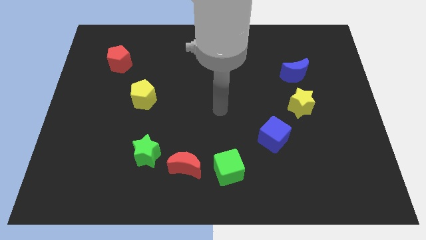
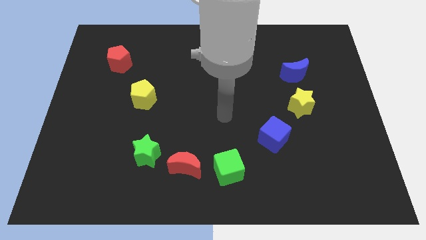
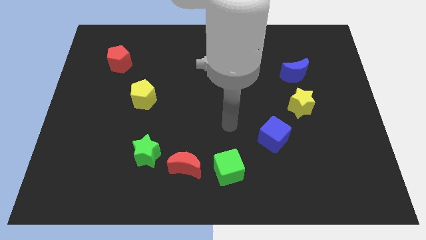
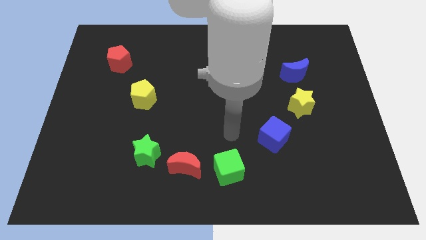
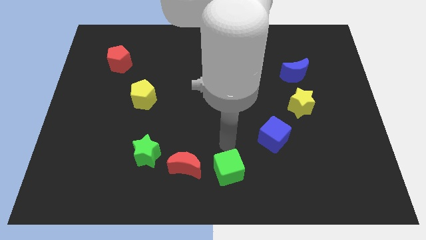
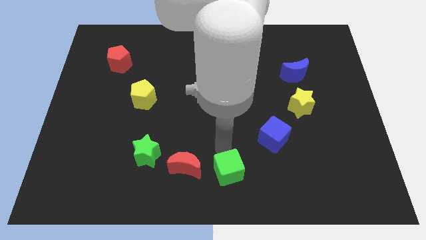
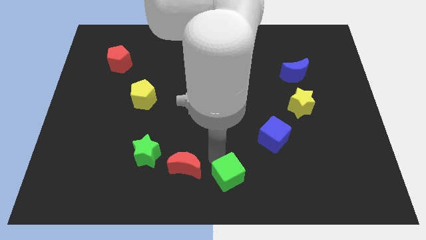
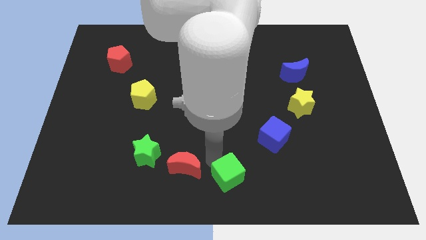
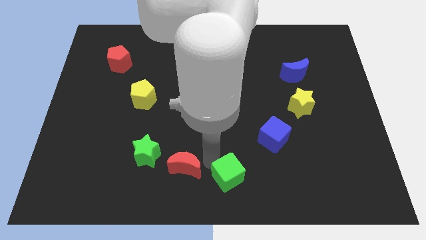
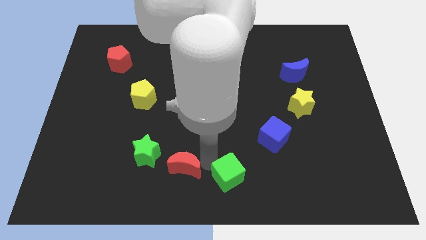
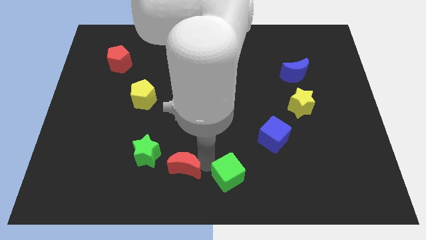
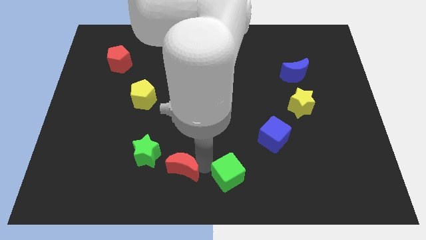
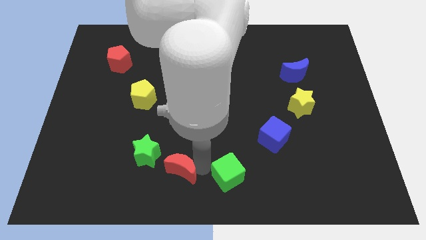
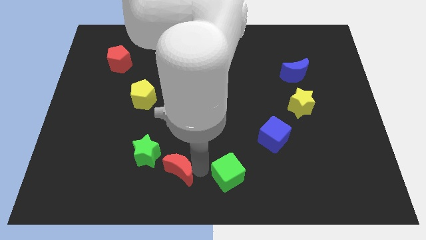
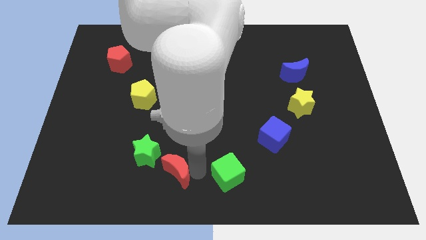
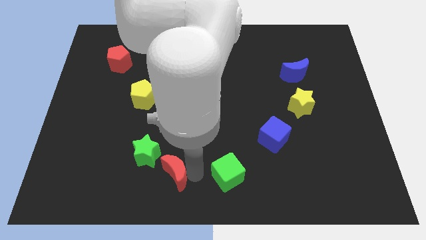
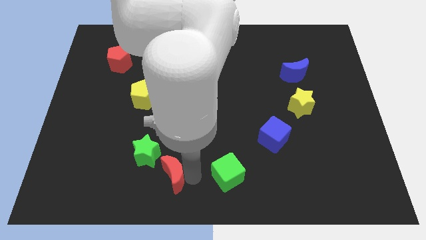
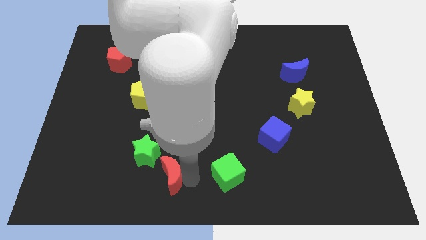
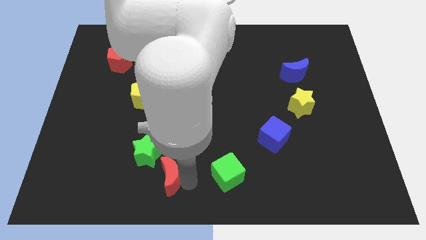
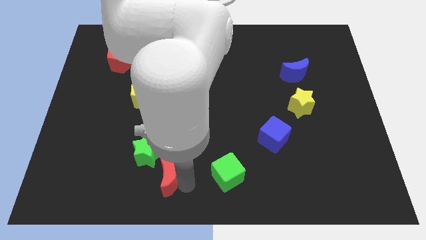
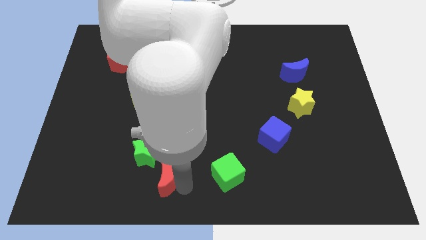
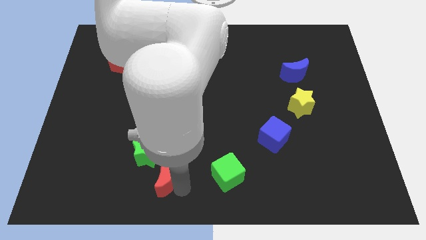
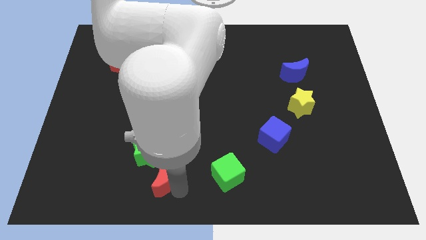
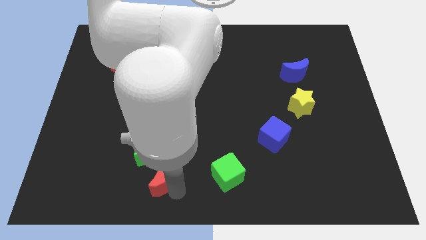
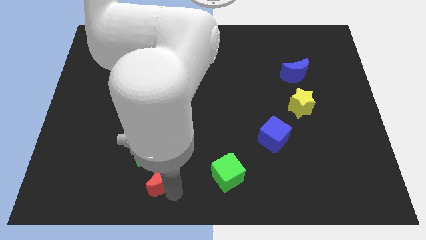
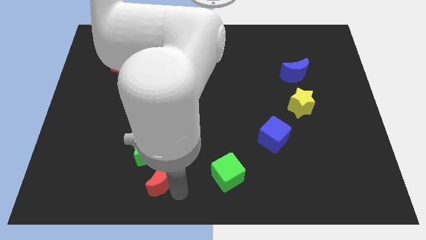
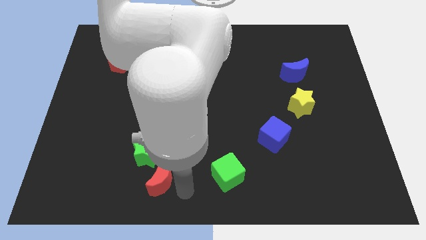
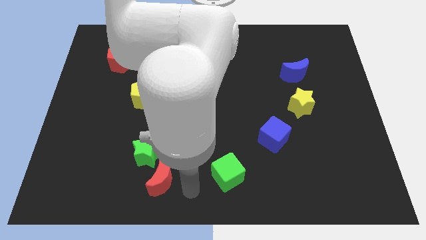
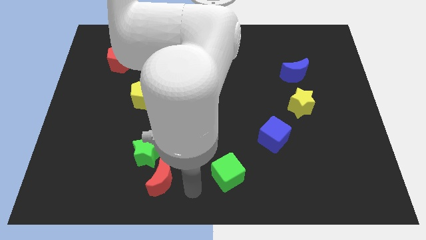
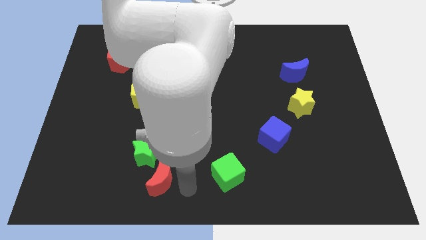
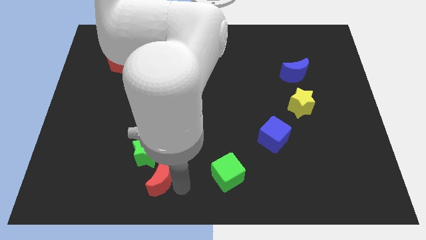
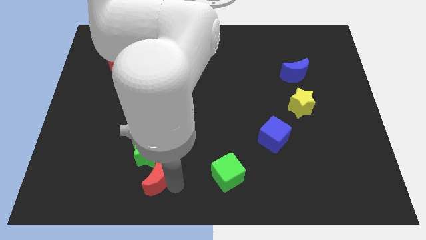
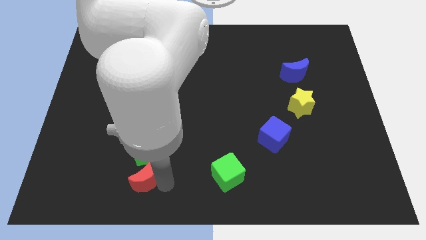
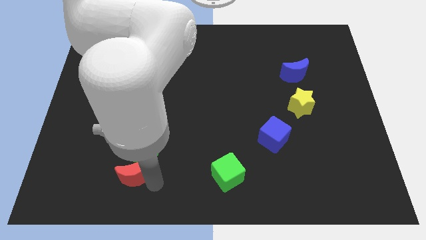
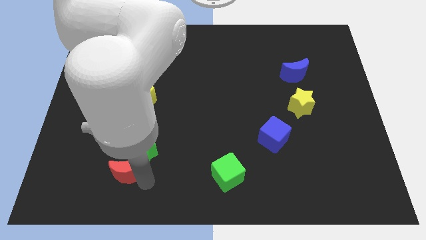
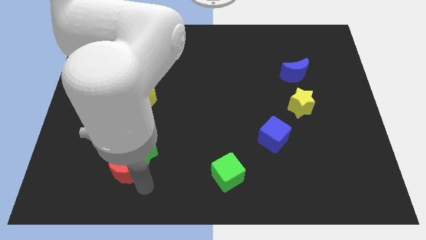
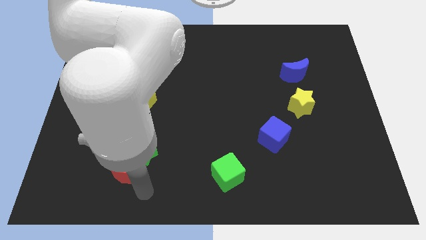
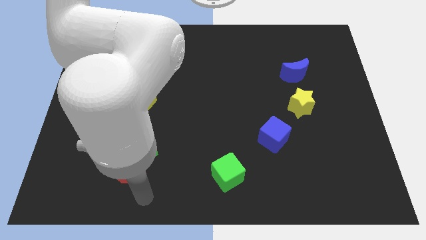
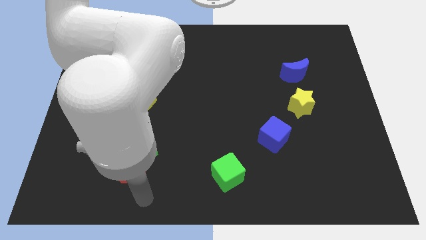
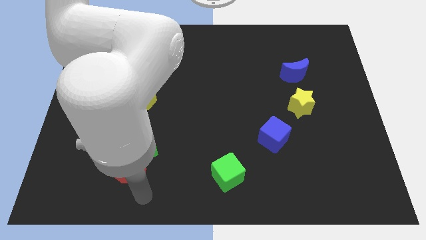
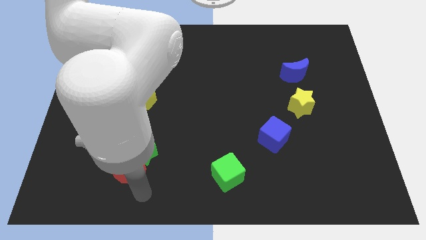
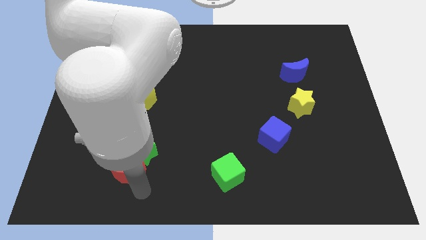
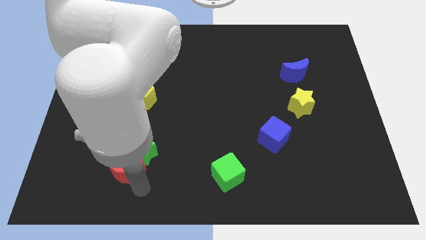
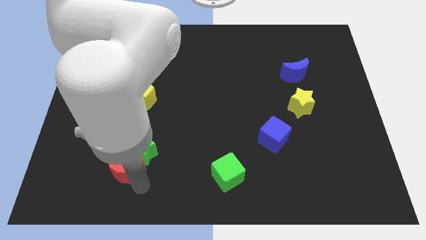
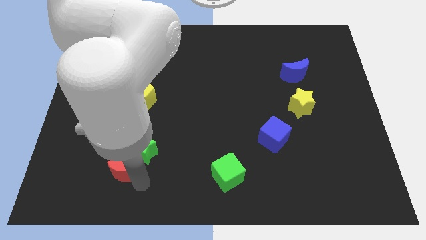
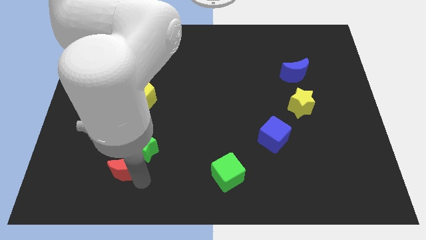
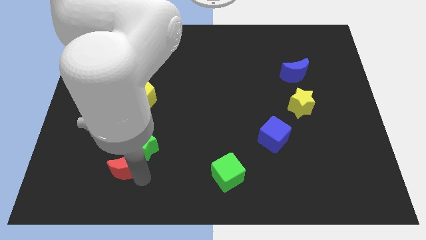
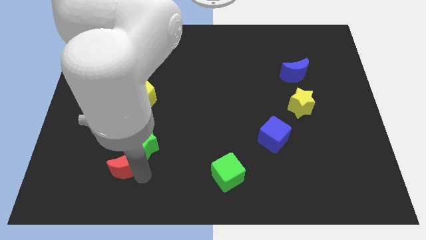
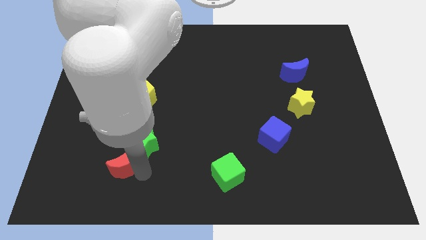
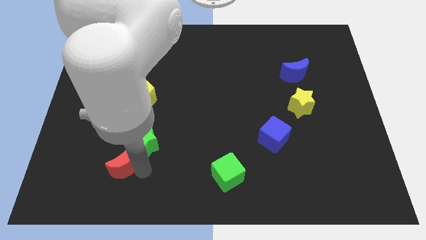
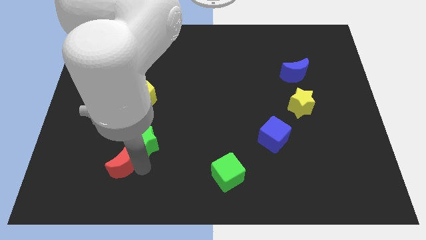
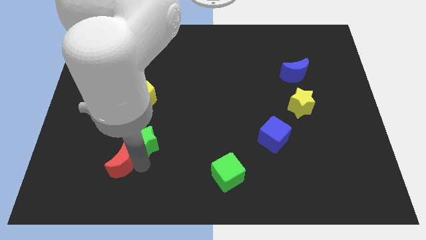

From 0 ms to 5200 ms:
slide the red moon to the left of the green star
